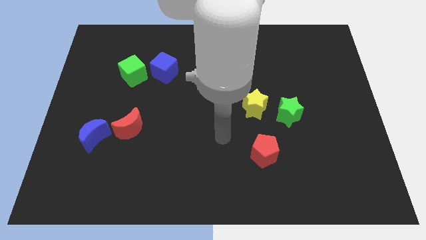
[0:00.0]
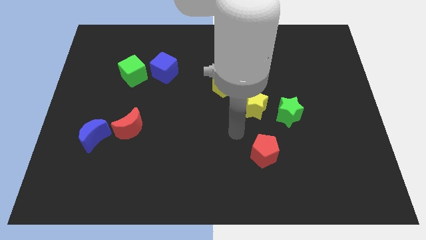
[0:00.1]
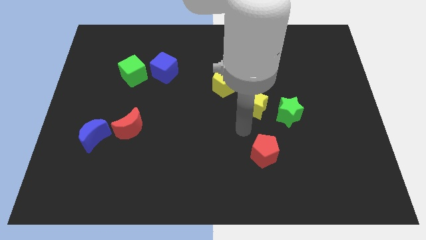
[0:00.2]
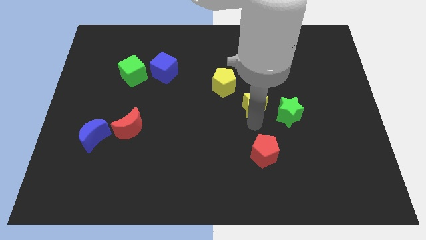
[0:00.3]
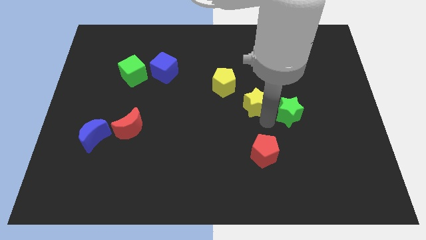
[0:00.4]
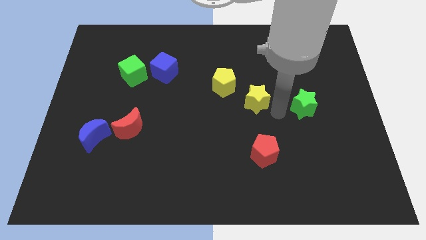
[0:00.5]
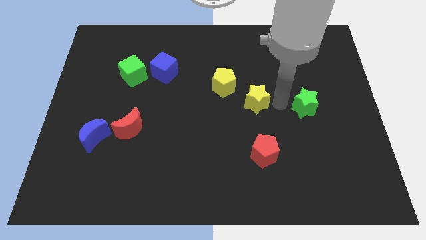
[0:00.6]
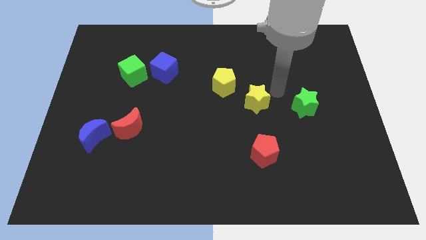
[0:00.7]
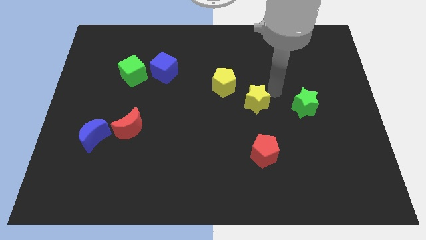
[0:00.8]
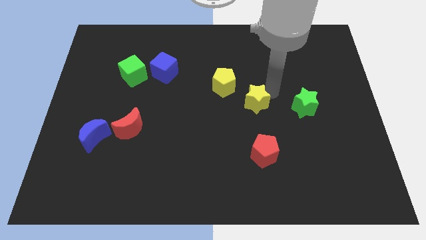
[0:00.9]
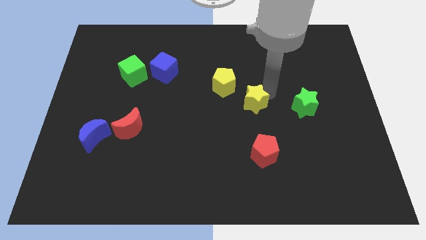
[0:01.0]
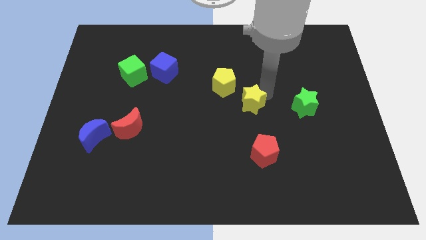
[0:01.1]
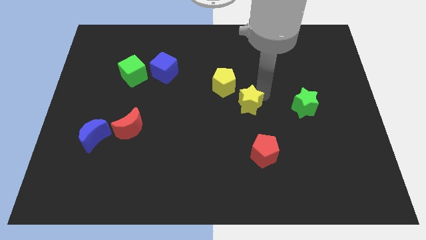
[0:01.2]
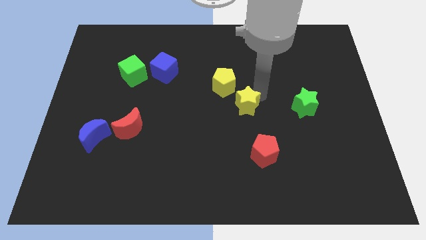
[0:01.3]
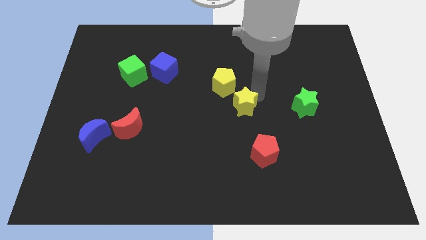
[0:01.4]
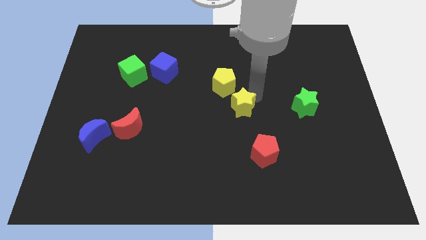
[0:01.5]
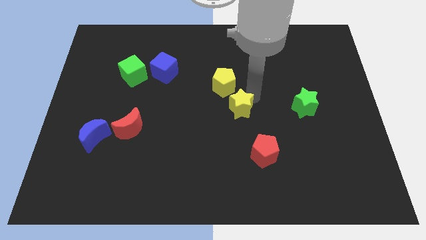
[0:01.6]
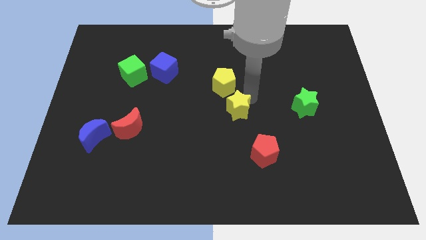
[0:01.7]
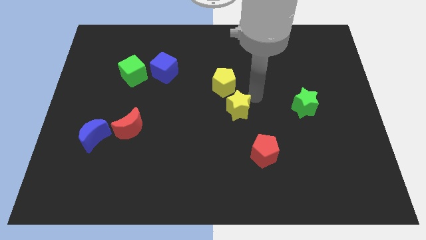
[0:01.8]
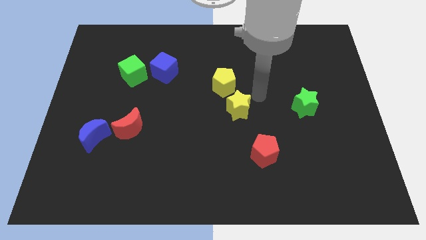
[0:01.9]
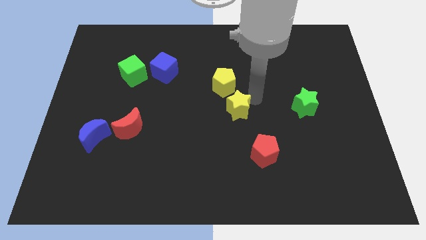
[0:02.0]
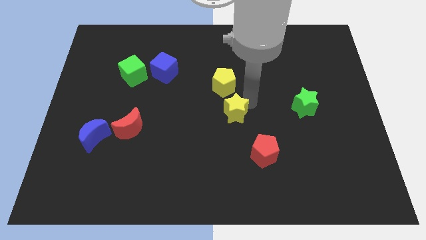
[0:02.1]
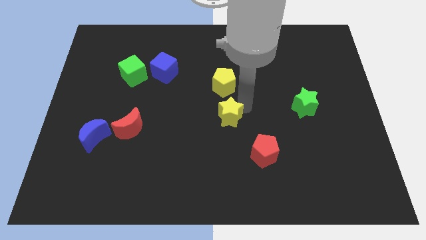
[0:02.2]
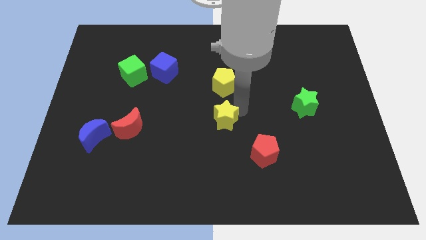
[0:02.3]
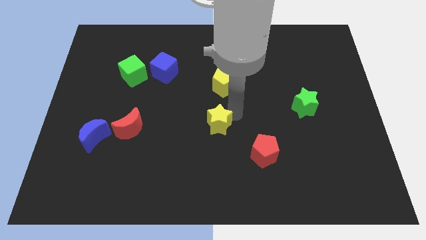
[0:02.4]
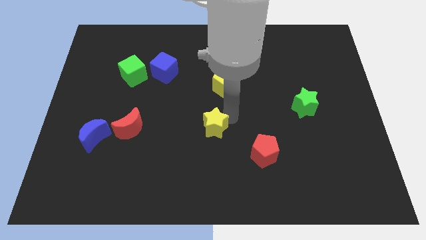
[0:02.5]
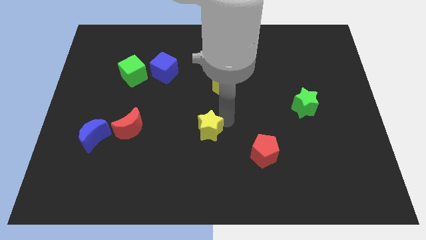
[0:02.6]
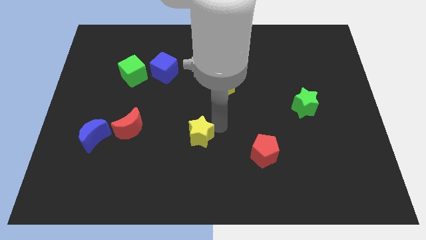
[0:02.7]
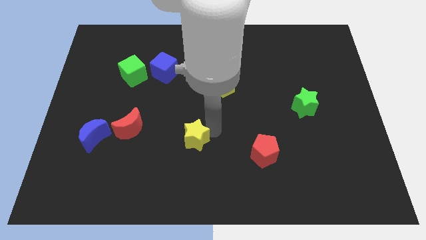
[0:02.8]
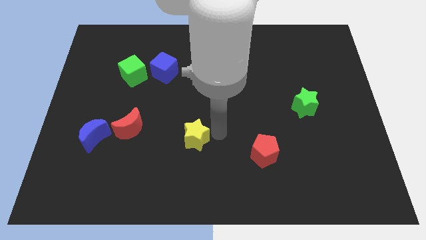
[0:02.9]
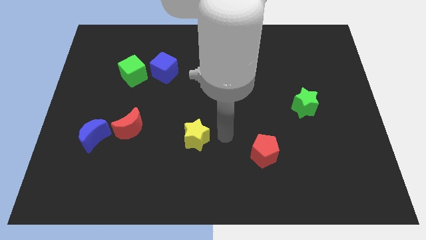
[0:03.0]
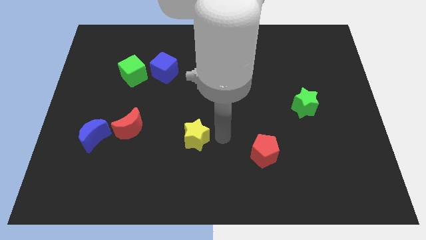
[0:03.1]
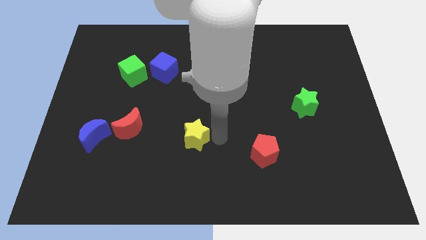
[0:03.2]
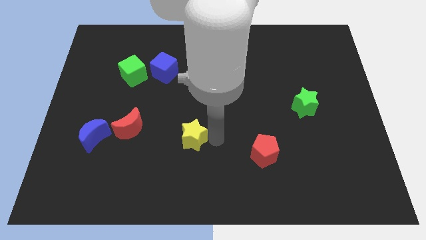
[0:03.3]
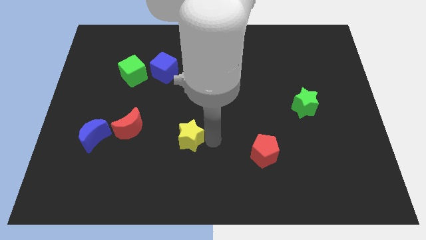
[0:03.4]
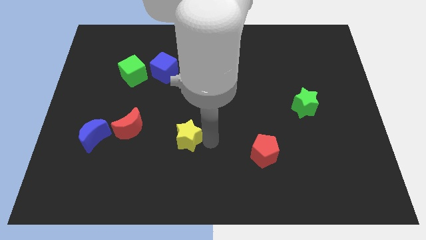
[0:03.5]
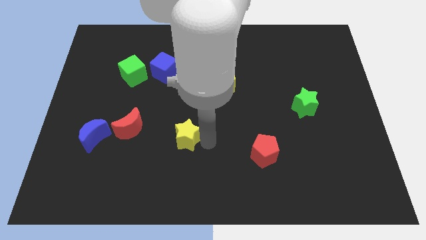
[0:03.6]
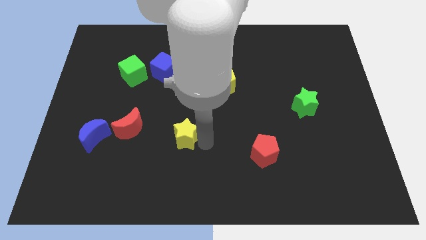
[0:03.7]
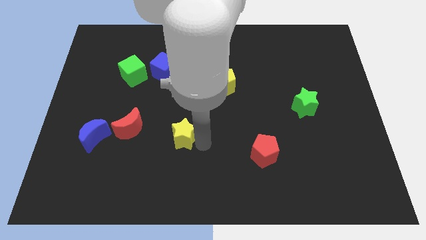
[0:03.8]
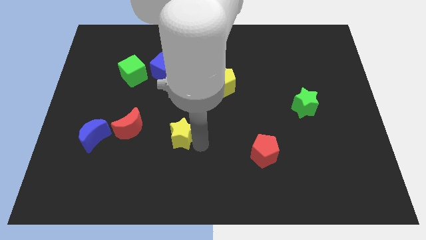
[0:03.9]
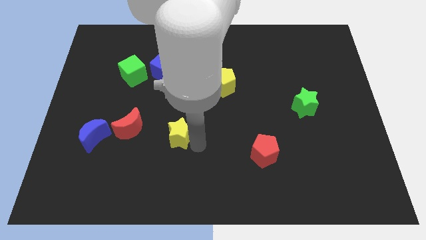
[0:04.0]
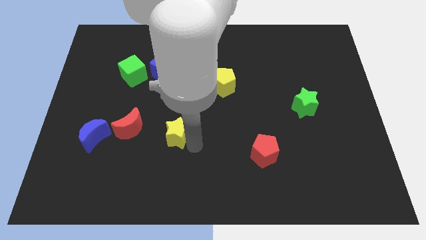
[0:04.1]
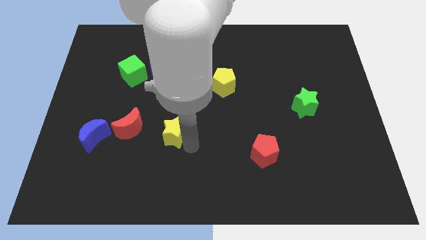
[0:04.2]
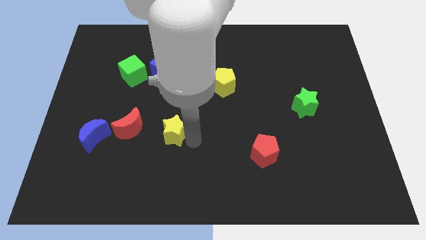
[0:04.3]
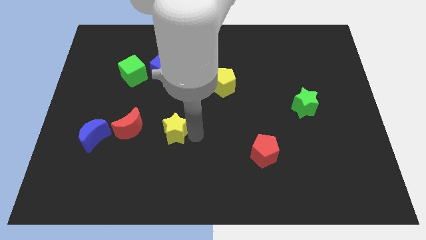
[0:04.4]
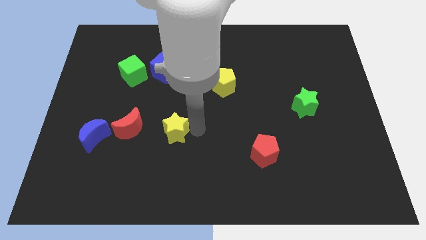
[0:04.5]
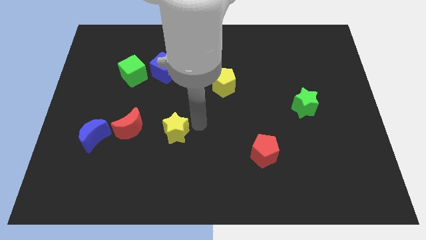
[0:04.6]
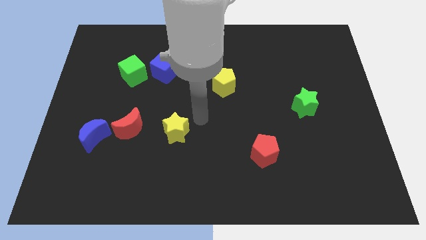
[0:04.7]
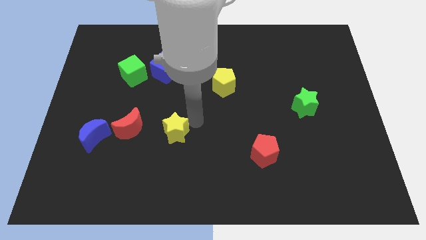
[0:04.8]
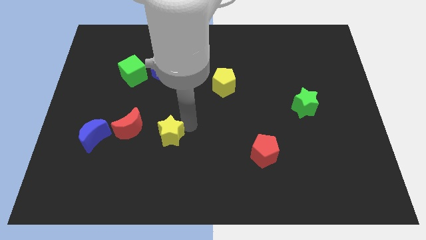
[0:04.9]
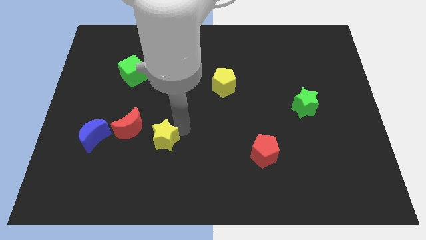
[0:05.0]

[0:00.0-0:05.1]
slide the yellow star diagonally down and to the right of the red moon

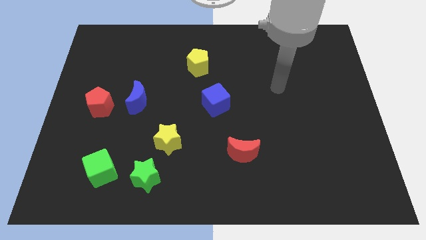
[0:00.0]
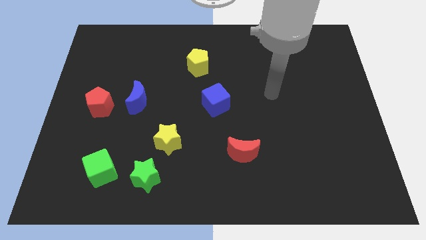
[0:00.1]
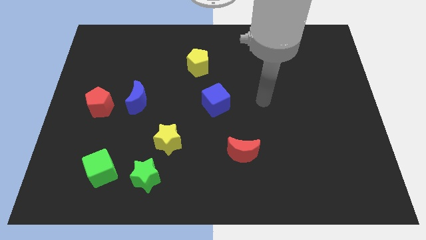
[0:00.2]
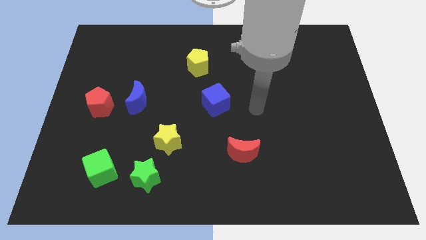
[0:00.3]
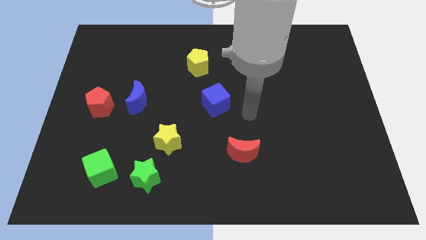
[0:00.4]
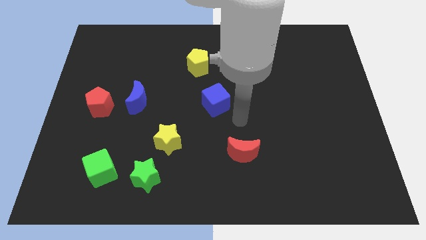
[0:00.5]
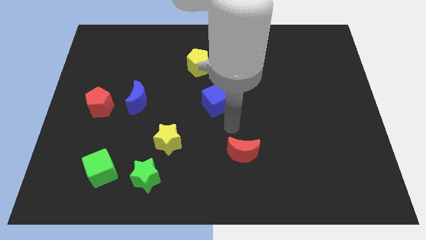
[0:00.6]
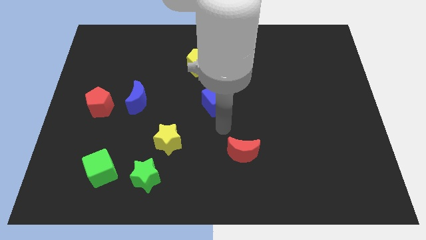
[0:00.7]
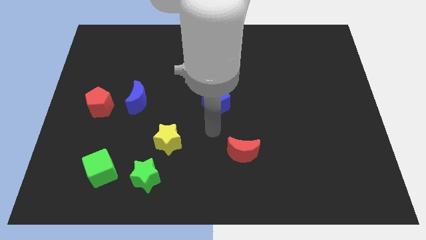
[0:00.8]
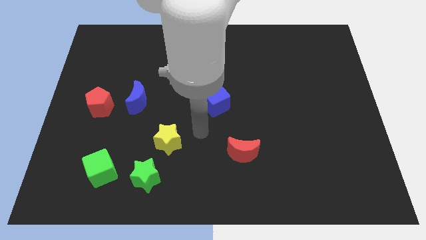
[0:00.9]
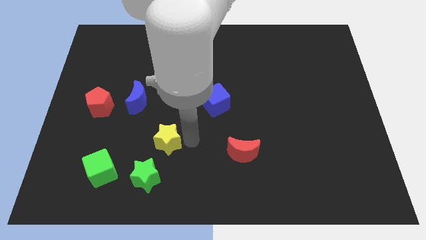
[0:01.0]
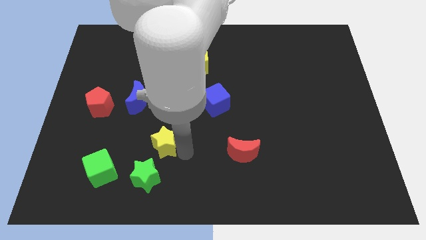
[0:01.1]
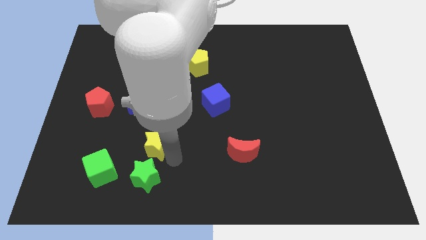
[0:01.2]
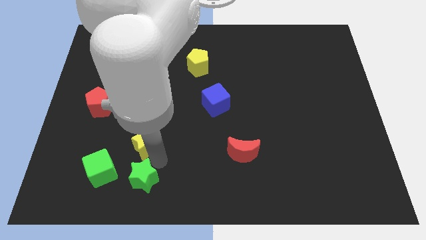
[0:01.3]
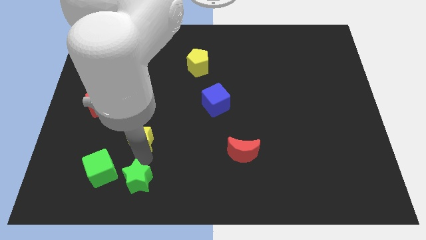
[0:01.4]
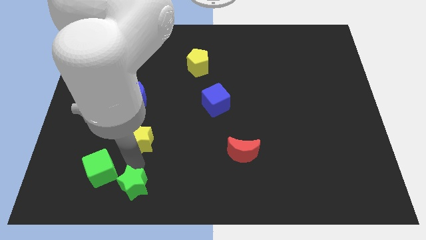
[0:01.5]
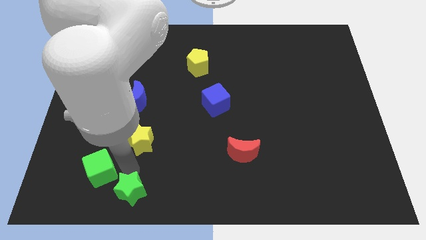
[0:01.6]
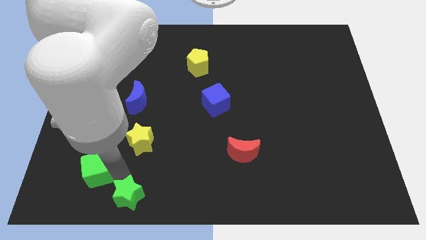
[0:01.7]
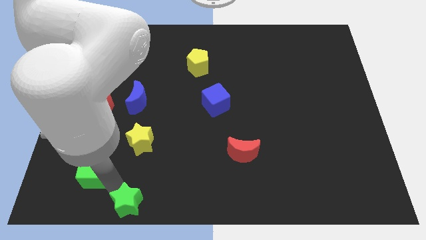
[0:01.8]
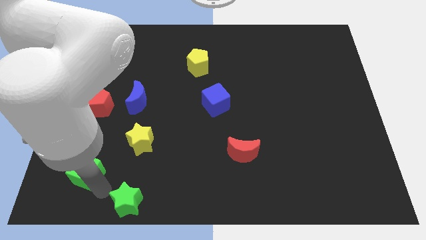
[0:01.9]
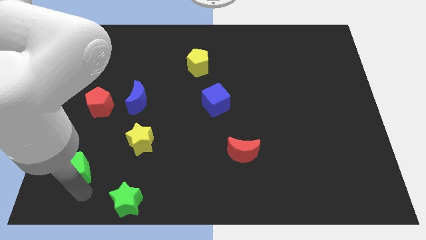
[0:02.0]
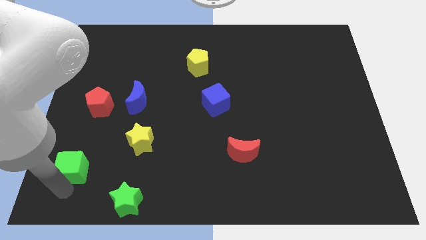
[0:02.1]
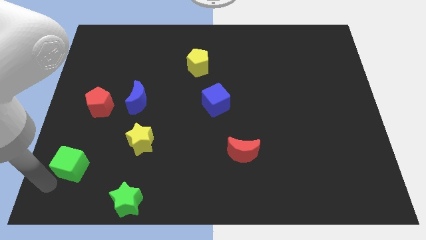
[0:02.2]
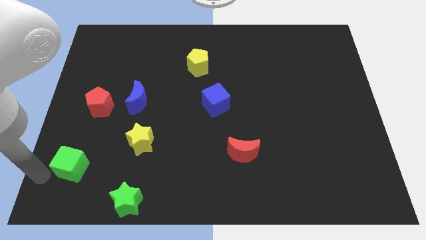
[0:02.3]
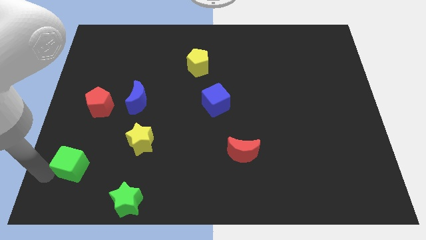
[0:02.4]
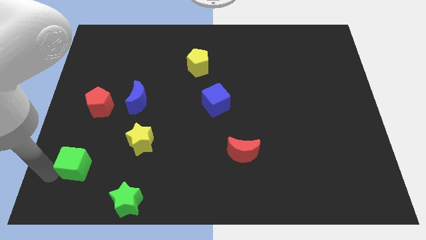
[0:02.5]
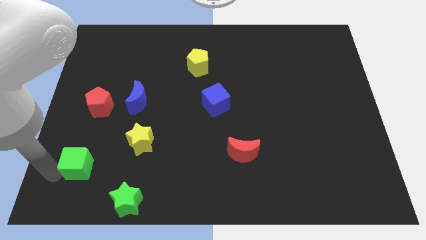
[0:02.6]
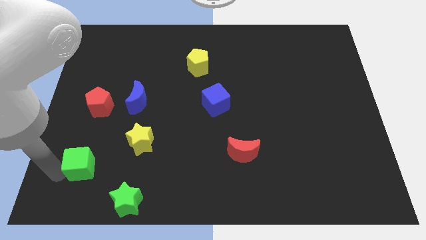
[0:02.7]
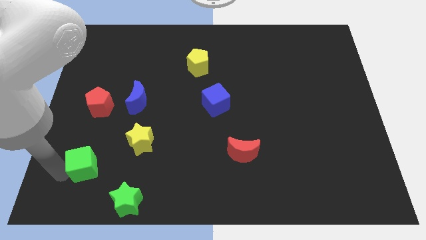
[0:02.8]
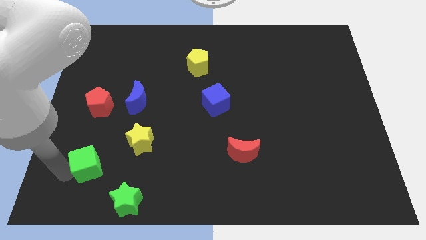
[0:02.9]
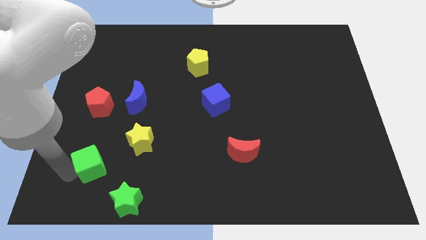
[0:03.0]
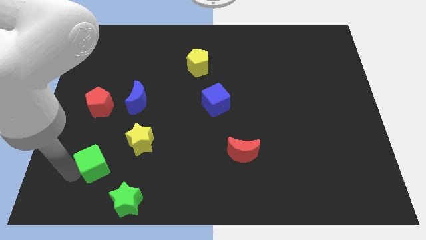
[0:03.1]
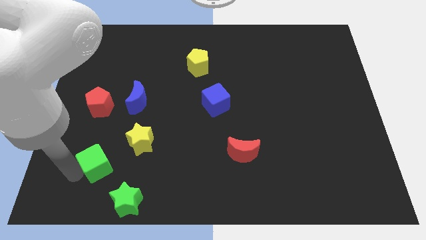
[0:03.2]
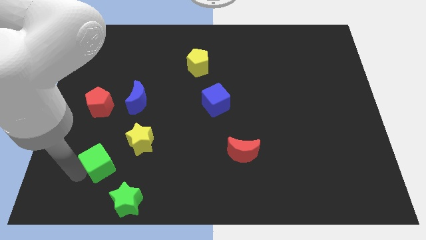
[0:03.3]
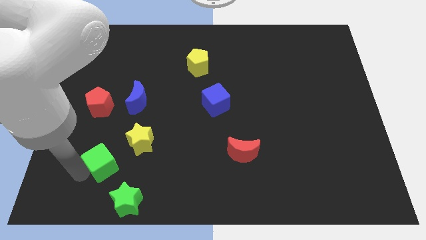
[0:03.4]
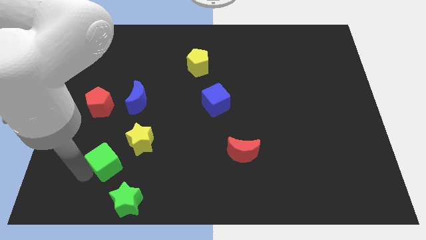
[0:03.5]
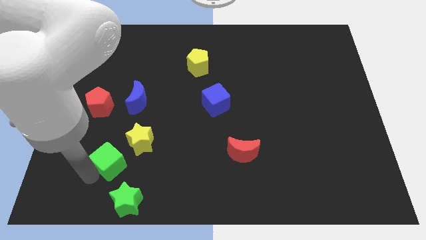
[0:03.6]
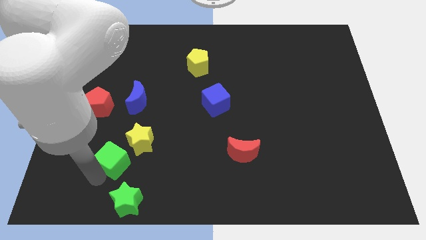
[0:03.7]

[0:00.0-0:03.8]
put the green cube just left of the yellow star
